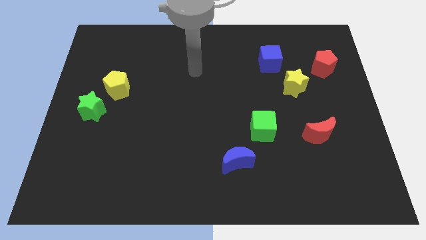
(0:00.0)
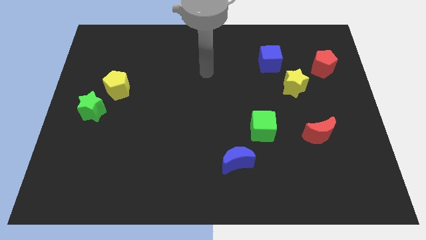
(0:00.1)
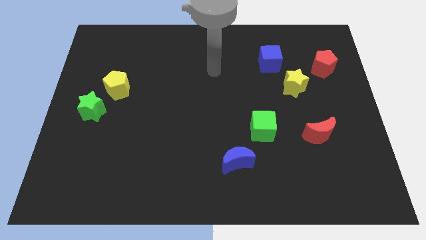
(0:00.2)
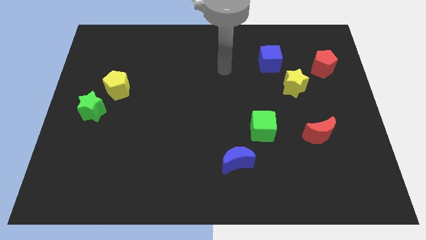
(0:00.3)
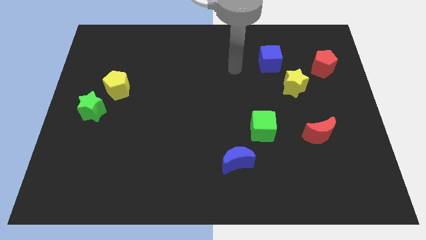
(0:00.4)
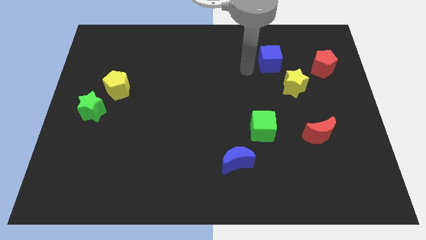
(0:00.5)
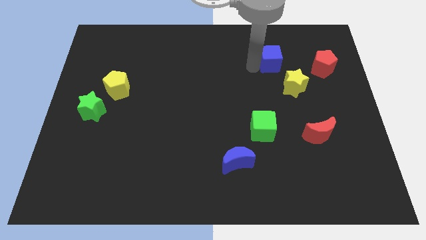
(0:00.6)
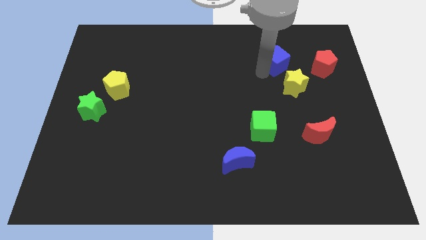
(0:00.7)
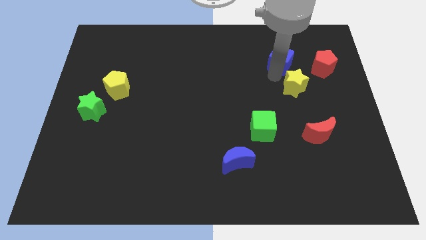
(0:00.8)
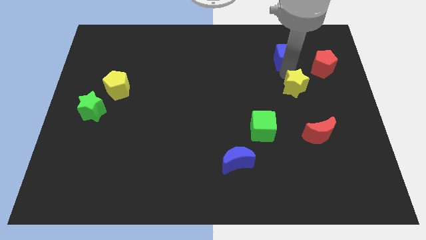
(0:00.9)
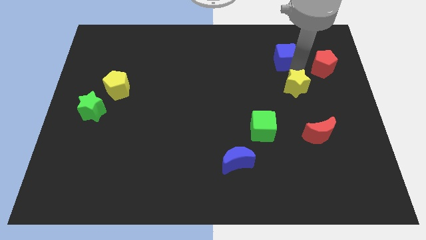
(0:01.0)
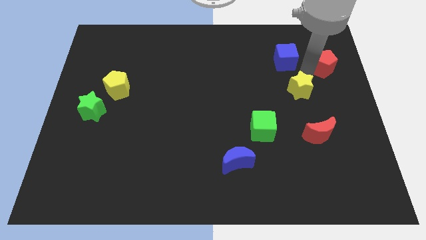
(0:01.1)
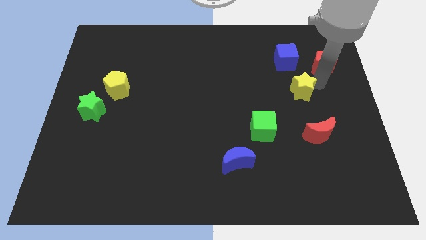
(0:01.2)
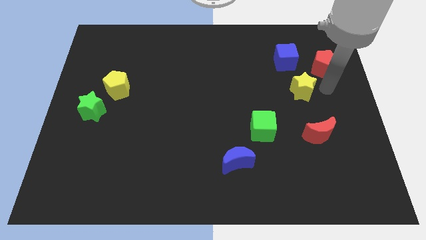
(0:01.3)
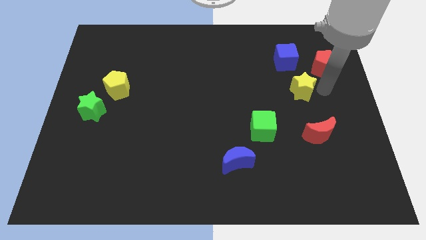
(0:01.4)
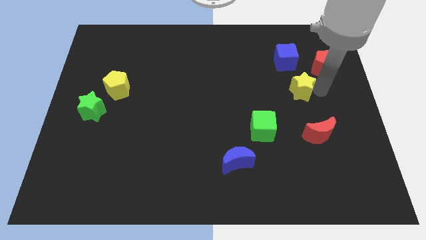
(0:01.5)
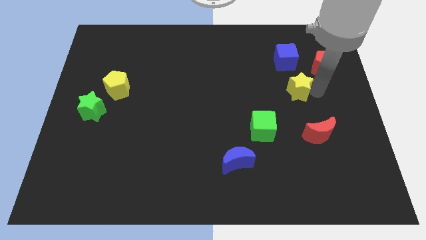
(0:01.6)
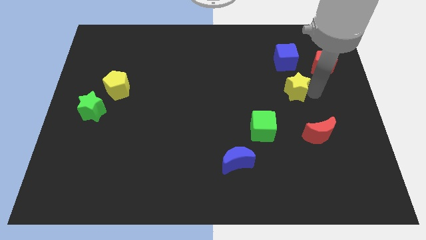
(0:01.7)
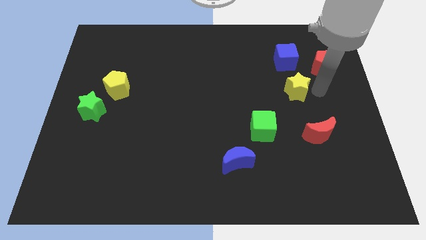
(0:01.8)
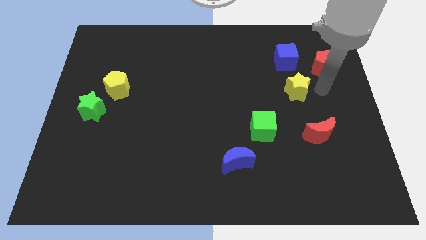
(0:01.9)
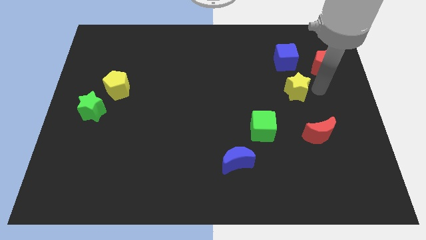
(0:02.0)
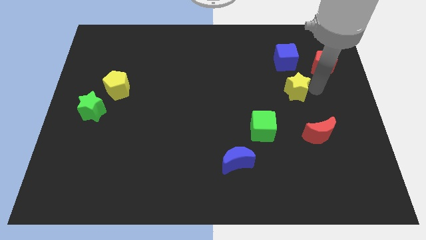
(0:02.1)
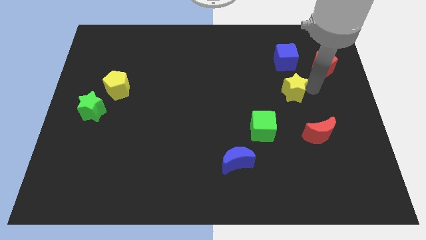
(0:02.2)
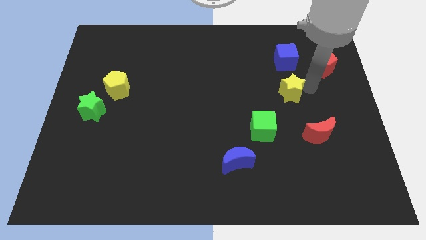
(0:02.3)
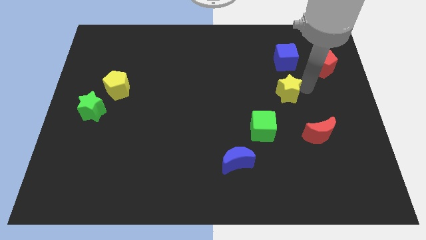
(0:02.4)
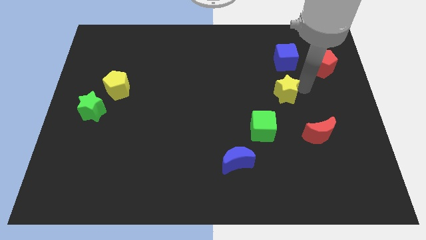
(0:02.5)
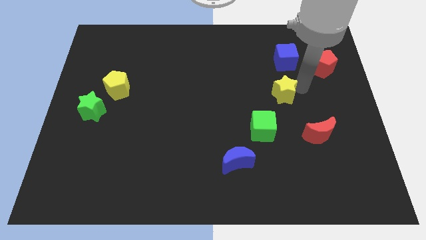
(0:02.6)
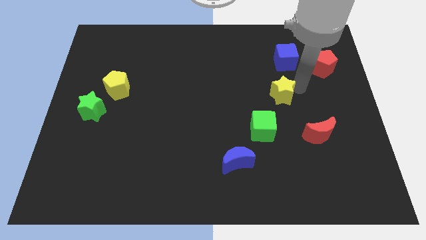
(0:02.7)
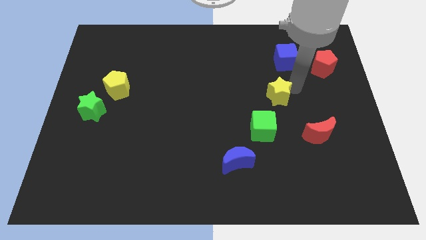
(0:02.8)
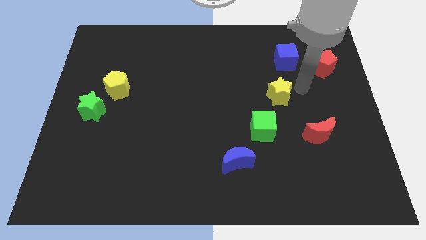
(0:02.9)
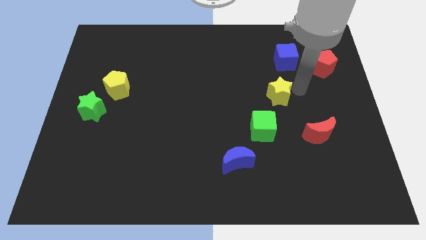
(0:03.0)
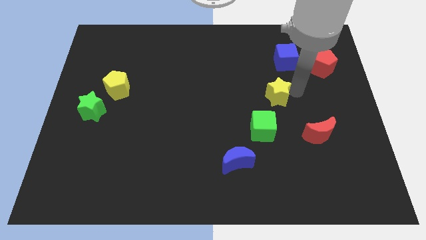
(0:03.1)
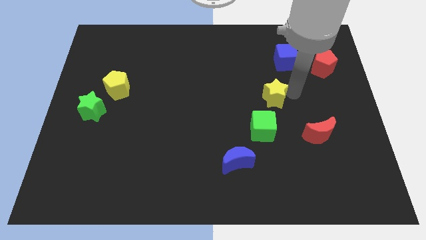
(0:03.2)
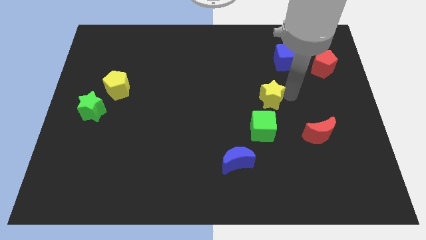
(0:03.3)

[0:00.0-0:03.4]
slide the yellow star a little downwards and to the left diagonally

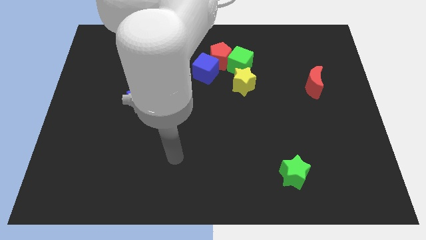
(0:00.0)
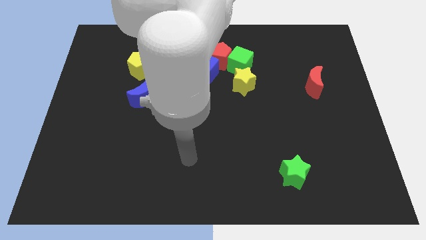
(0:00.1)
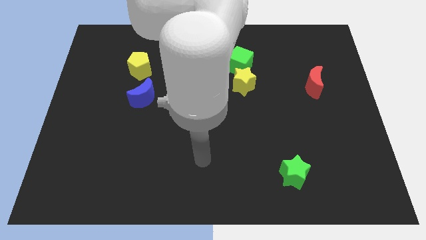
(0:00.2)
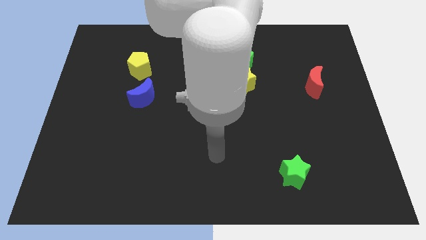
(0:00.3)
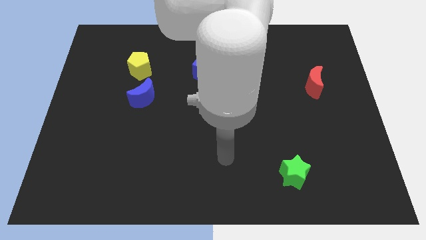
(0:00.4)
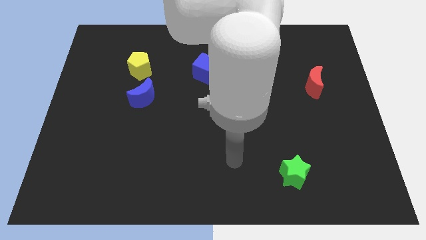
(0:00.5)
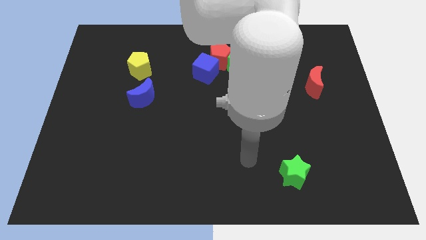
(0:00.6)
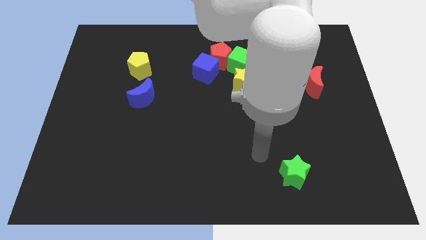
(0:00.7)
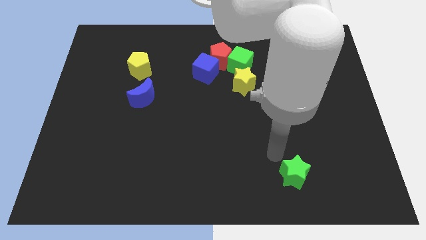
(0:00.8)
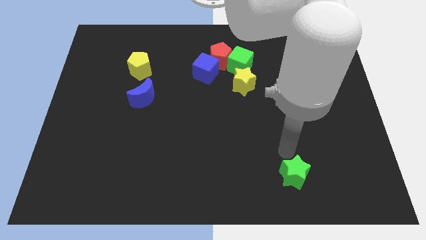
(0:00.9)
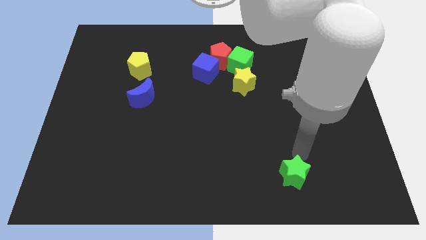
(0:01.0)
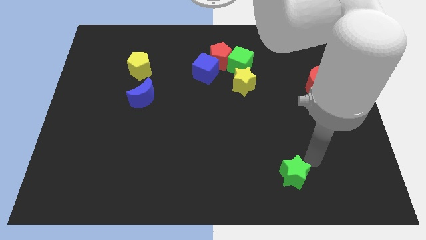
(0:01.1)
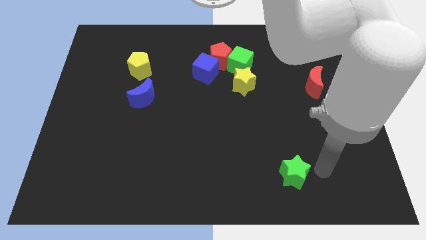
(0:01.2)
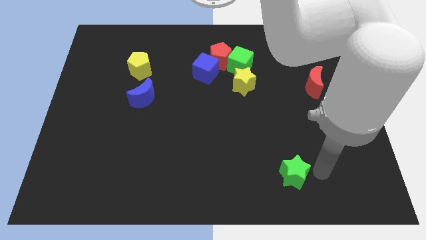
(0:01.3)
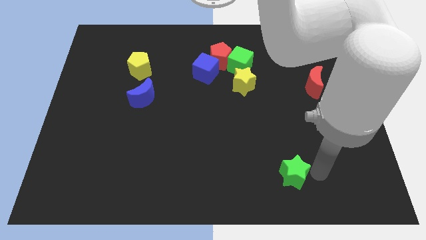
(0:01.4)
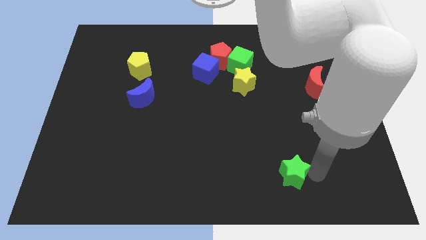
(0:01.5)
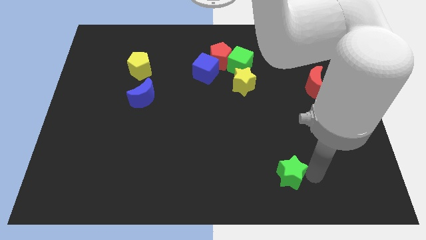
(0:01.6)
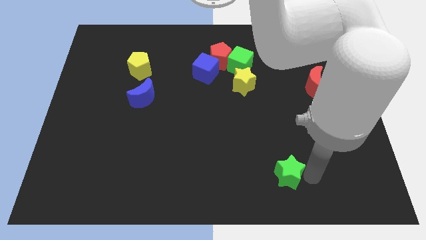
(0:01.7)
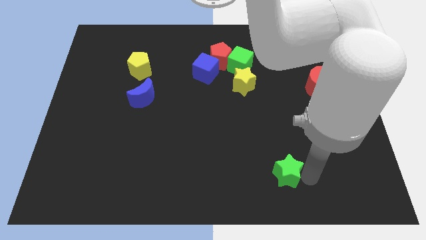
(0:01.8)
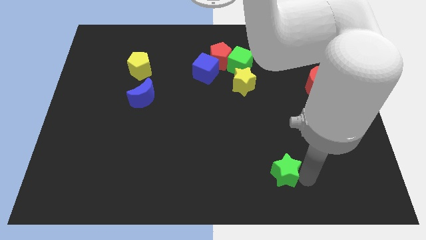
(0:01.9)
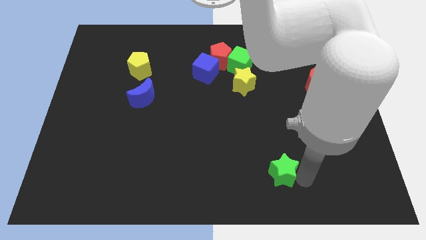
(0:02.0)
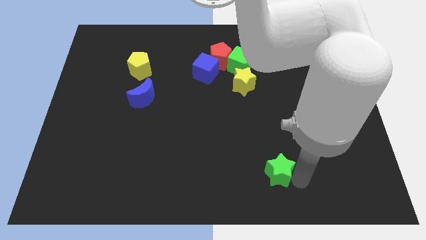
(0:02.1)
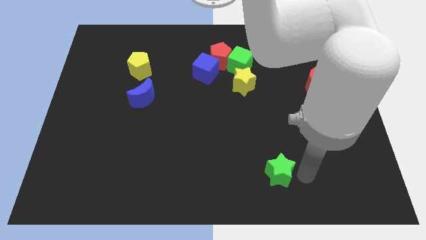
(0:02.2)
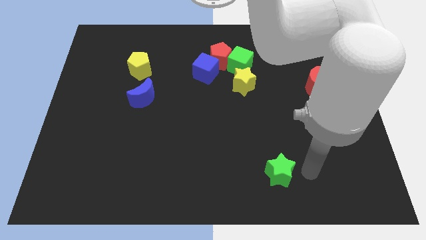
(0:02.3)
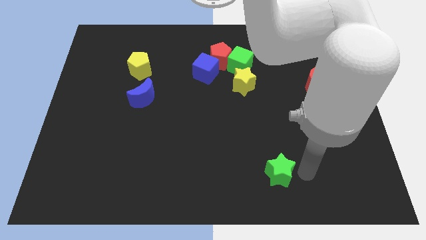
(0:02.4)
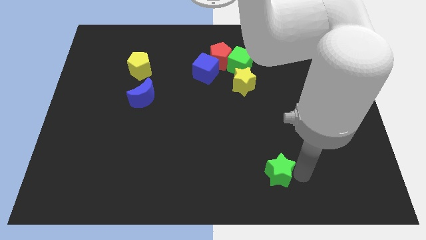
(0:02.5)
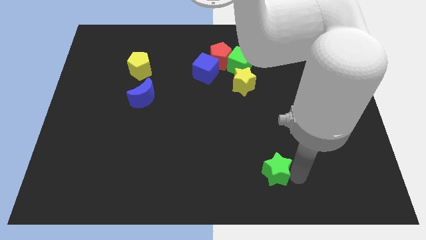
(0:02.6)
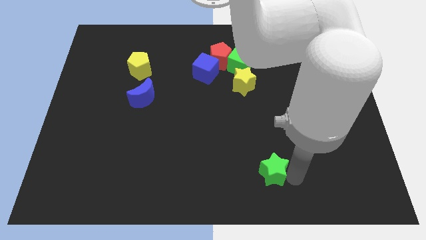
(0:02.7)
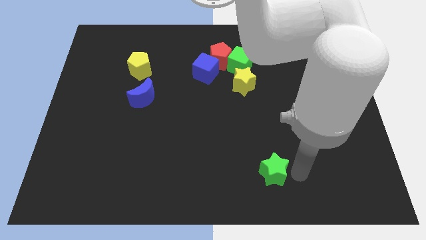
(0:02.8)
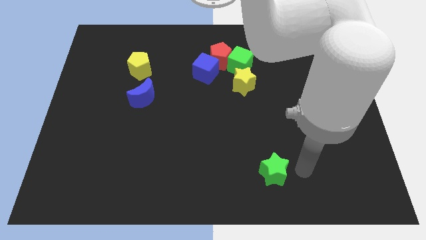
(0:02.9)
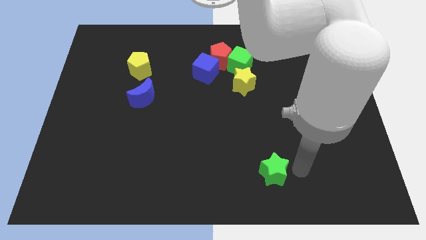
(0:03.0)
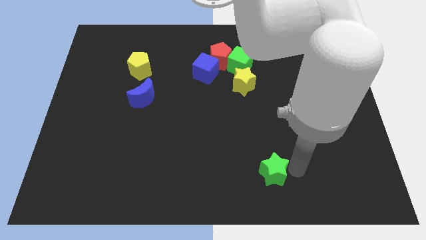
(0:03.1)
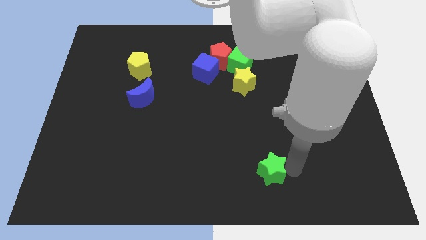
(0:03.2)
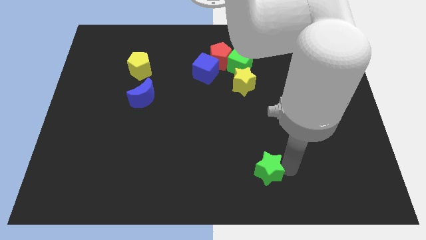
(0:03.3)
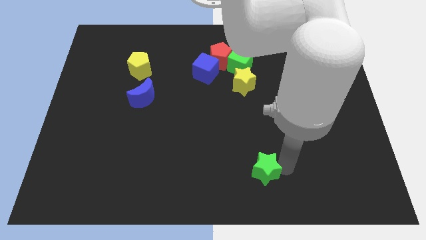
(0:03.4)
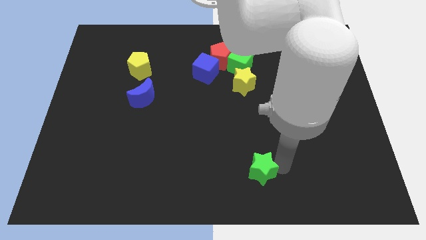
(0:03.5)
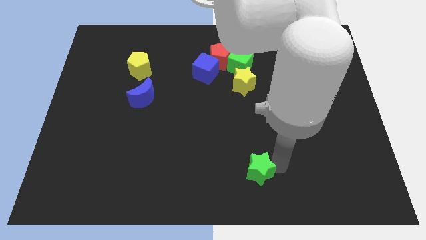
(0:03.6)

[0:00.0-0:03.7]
slide the green star somewhat left

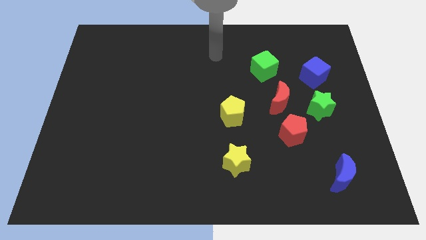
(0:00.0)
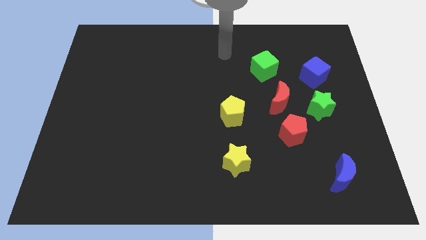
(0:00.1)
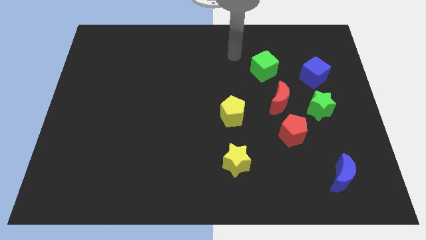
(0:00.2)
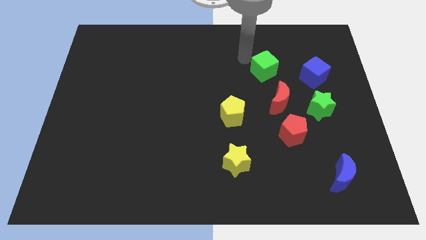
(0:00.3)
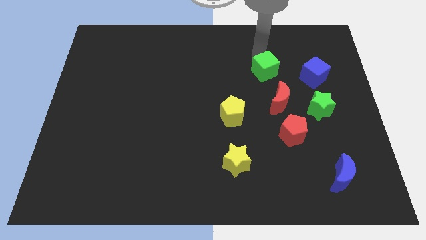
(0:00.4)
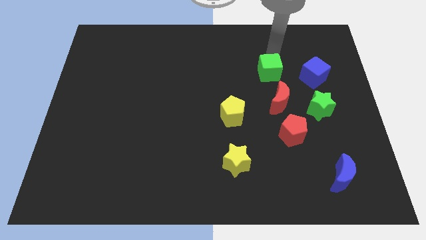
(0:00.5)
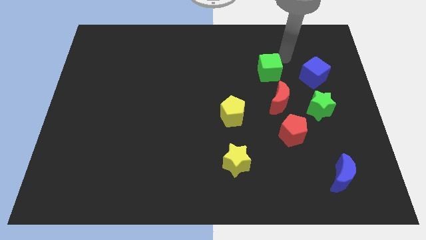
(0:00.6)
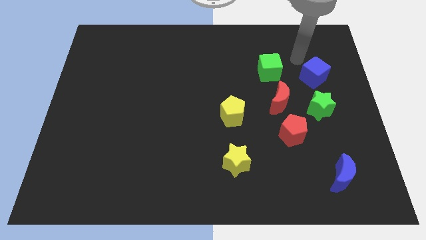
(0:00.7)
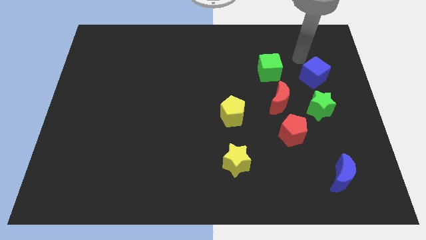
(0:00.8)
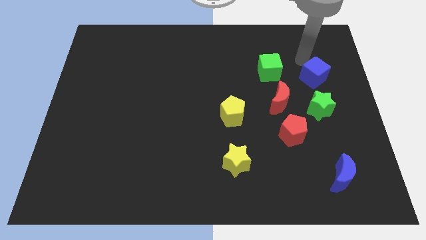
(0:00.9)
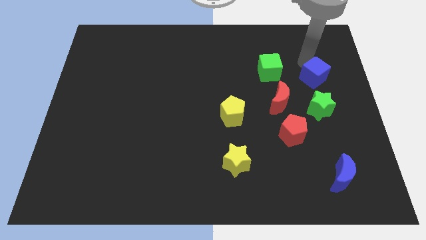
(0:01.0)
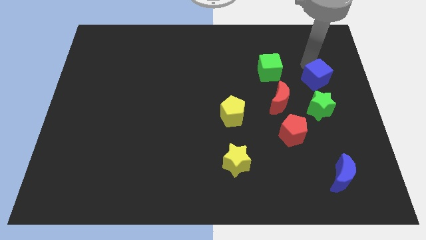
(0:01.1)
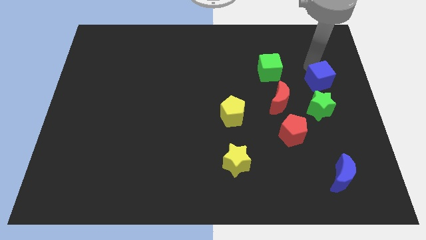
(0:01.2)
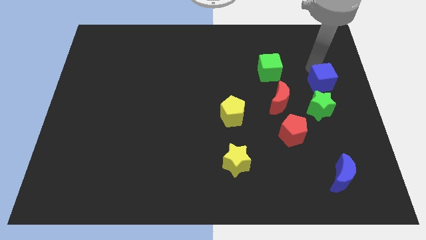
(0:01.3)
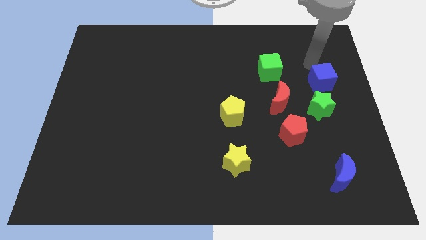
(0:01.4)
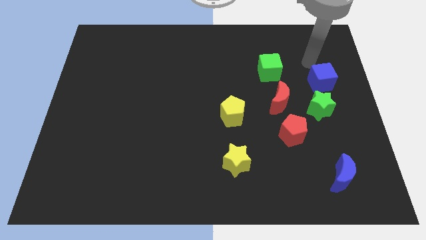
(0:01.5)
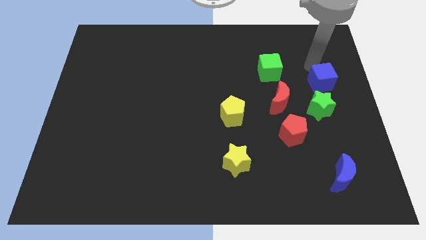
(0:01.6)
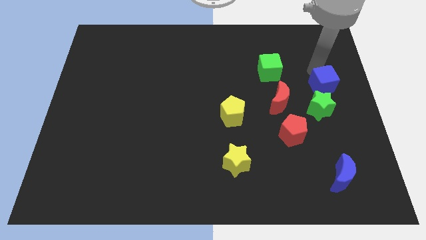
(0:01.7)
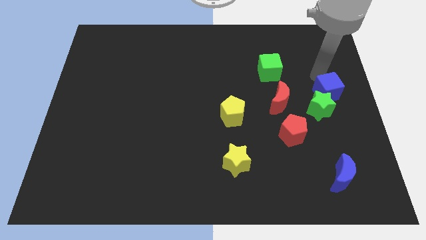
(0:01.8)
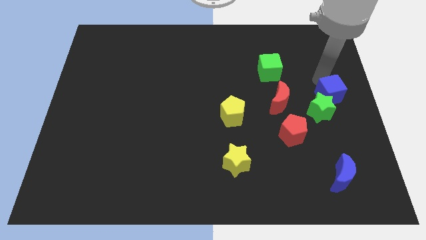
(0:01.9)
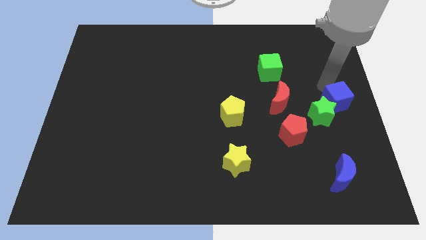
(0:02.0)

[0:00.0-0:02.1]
slightly slide the blue cube down
